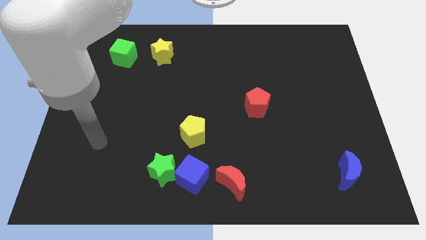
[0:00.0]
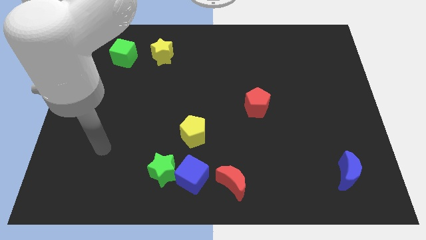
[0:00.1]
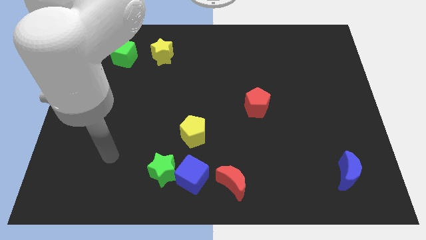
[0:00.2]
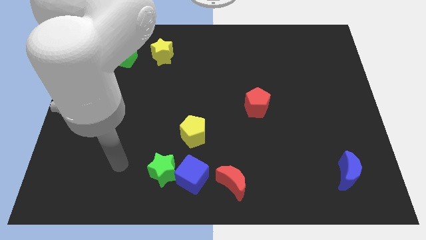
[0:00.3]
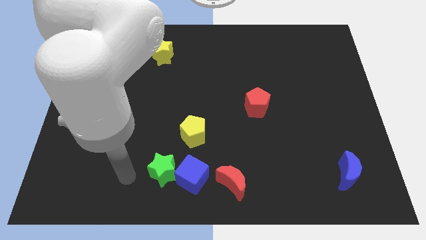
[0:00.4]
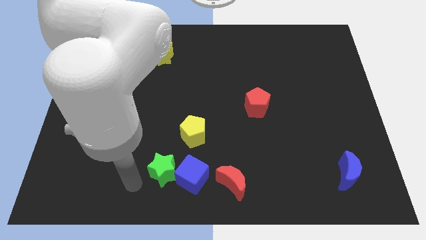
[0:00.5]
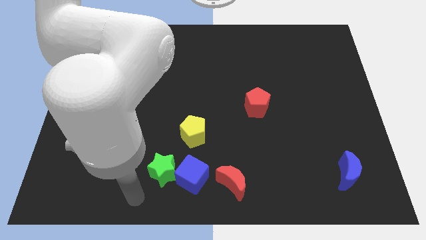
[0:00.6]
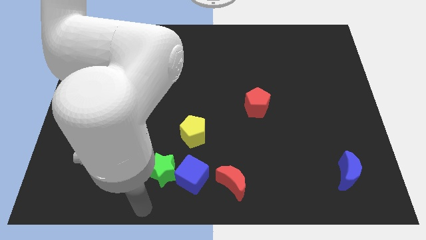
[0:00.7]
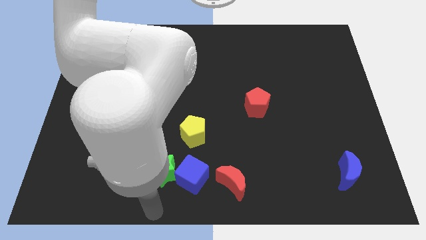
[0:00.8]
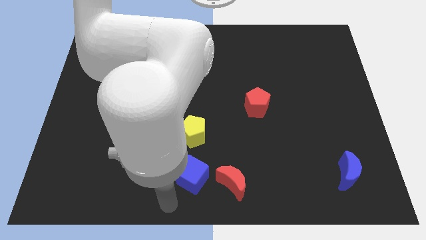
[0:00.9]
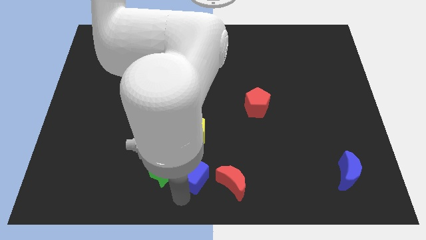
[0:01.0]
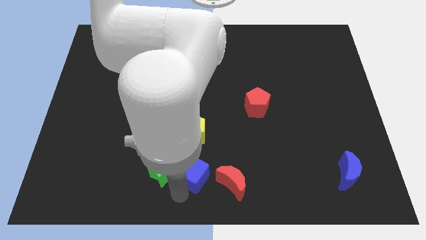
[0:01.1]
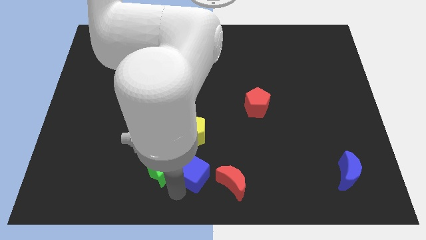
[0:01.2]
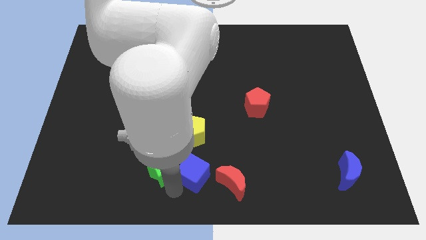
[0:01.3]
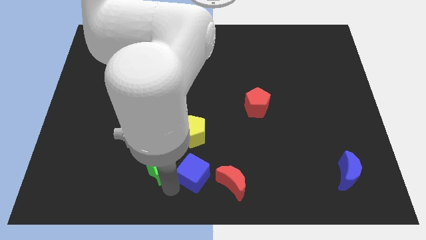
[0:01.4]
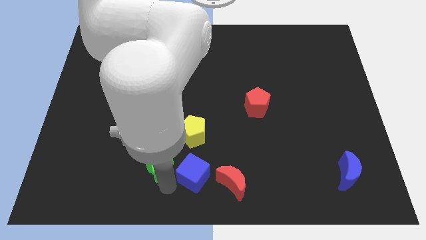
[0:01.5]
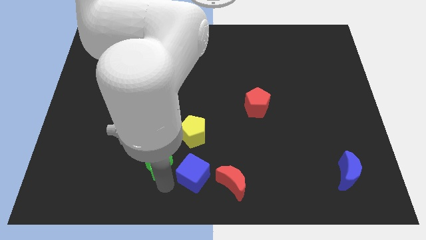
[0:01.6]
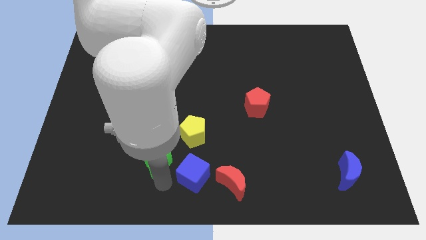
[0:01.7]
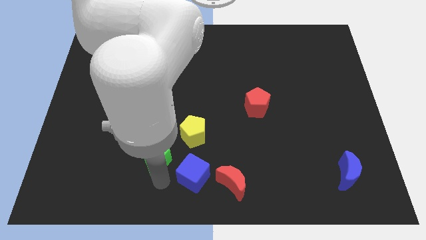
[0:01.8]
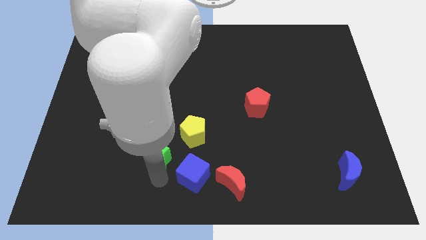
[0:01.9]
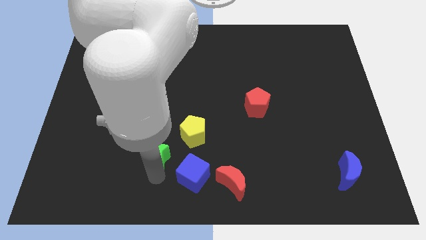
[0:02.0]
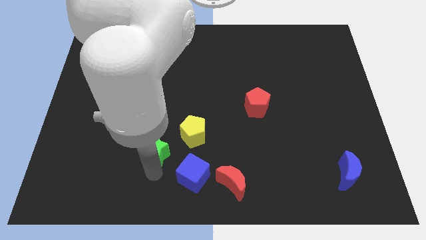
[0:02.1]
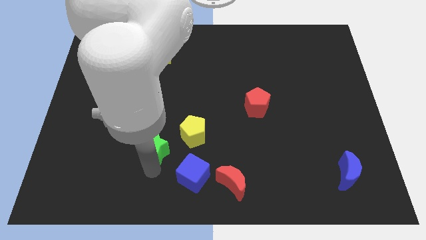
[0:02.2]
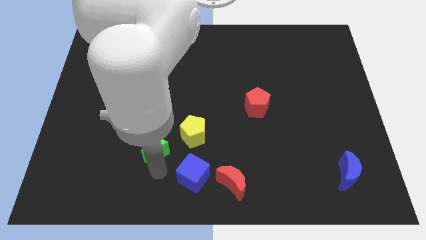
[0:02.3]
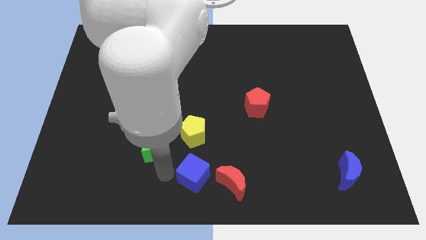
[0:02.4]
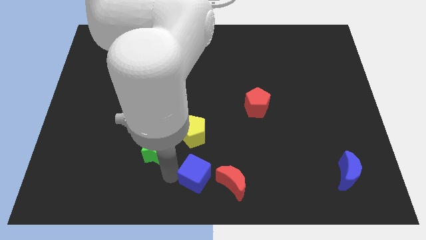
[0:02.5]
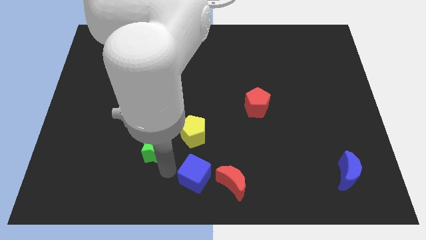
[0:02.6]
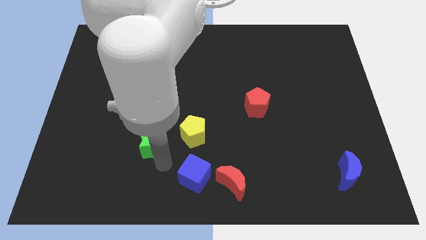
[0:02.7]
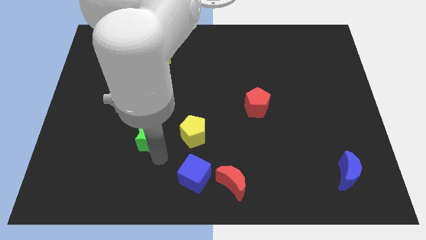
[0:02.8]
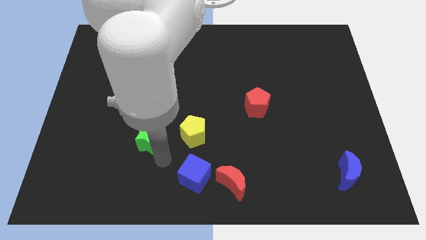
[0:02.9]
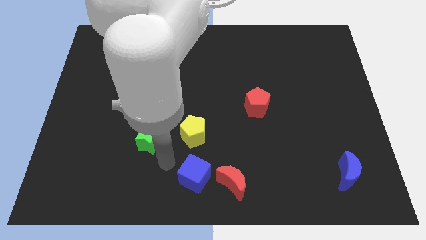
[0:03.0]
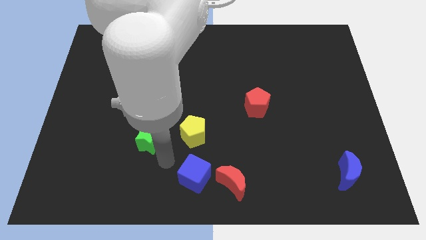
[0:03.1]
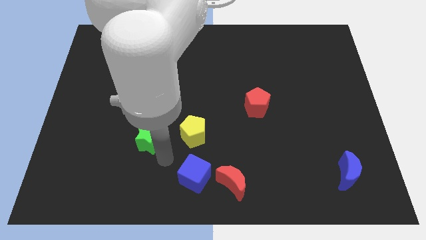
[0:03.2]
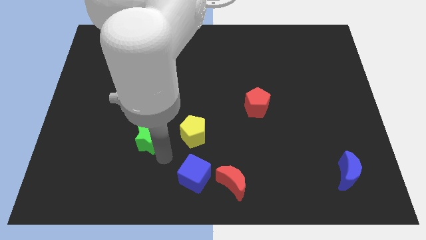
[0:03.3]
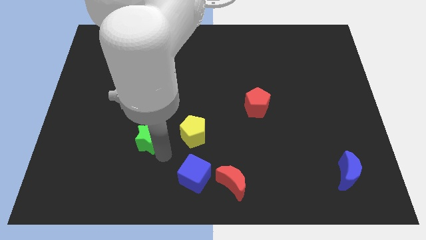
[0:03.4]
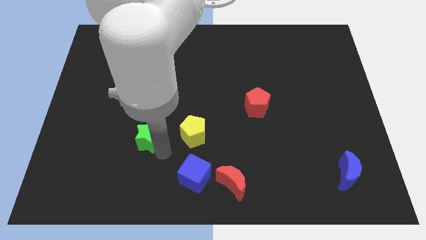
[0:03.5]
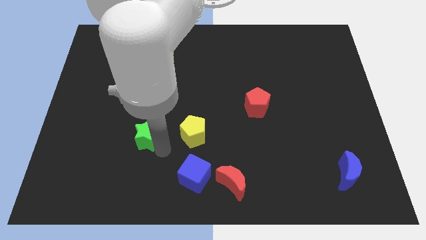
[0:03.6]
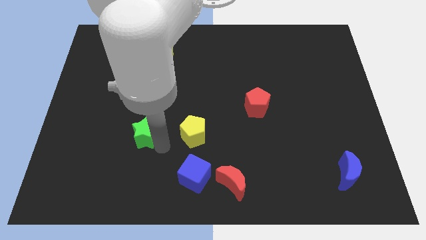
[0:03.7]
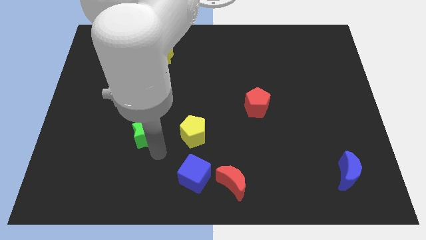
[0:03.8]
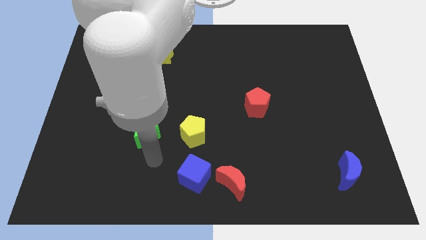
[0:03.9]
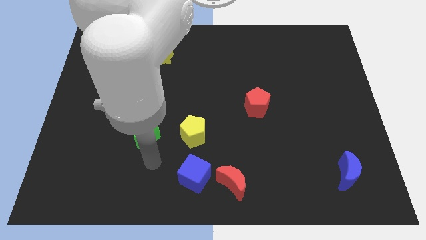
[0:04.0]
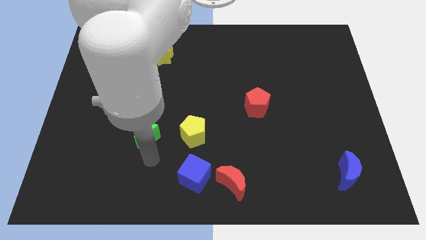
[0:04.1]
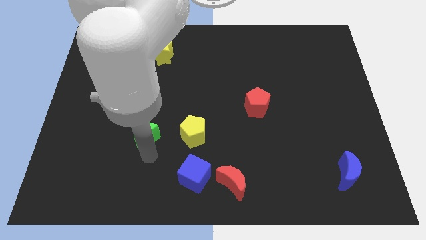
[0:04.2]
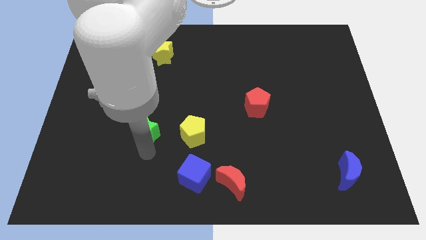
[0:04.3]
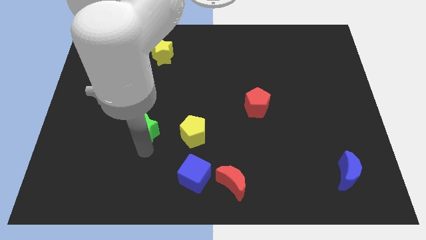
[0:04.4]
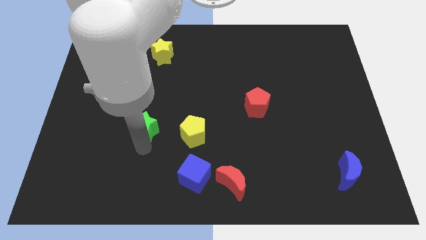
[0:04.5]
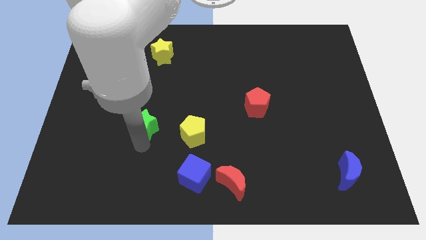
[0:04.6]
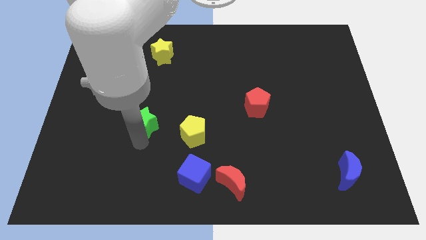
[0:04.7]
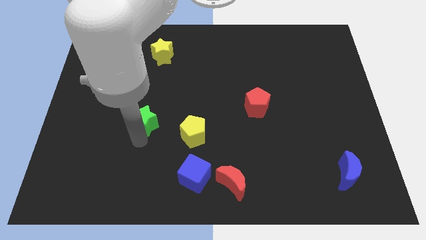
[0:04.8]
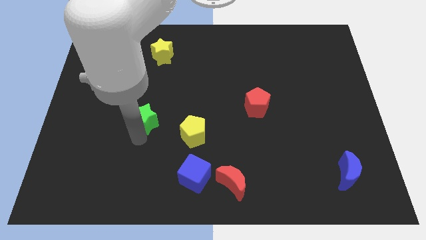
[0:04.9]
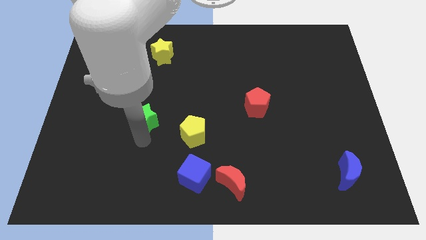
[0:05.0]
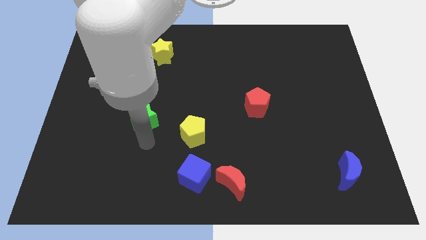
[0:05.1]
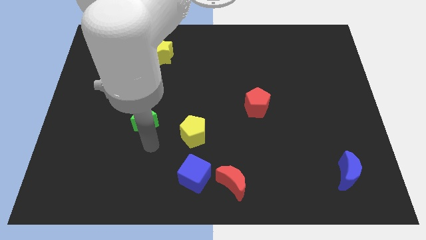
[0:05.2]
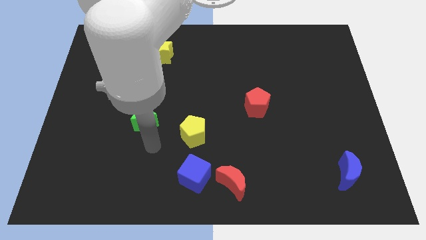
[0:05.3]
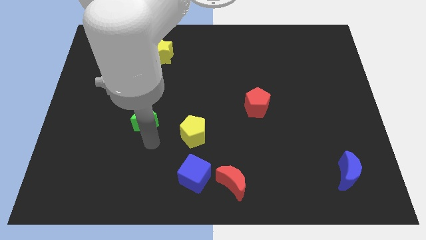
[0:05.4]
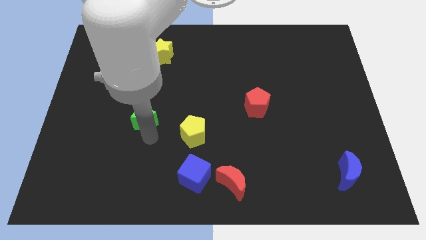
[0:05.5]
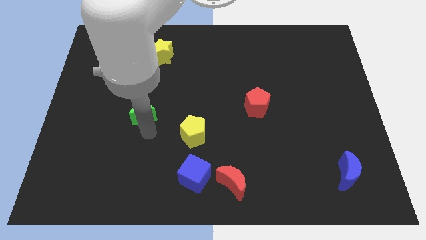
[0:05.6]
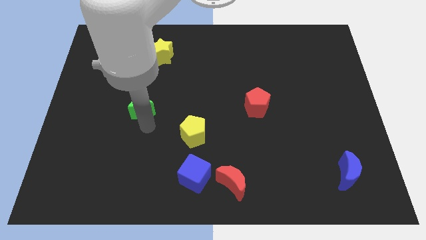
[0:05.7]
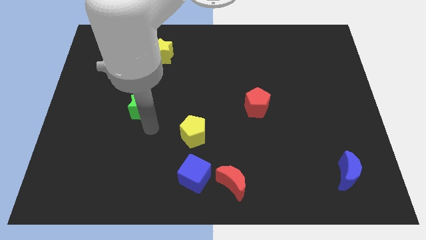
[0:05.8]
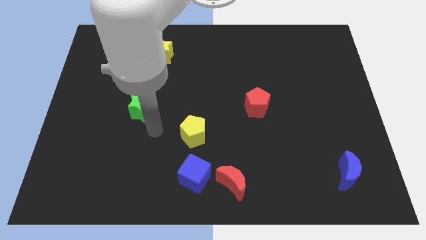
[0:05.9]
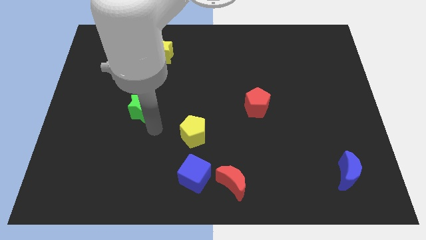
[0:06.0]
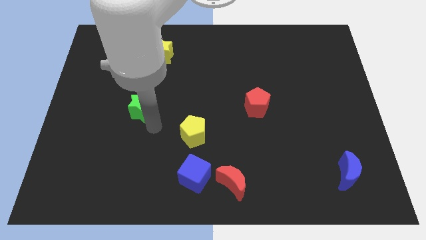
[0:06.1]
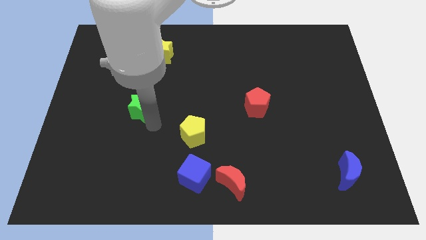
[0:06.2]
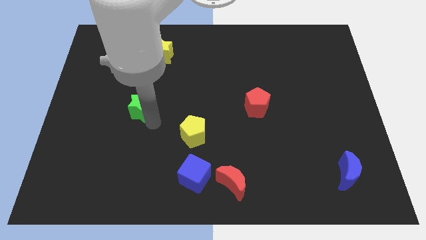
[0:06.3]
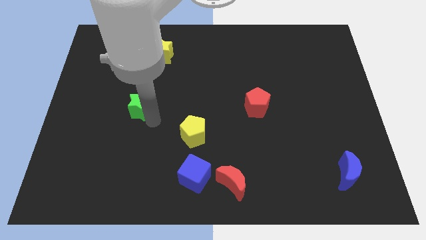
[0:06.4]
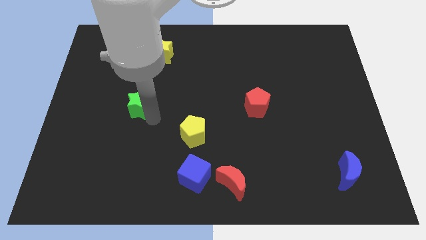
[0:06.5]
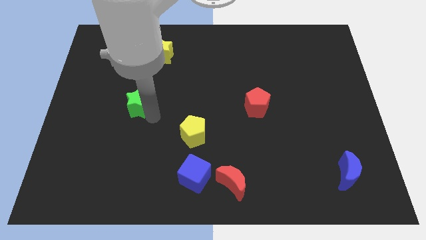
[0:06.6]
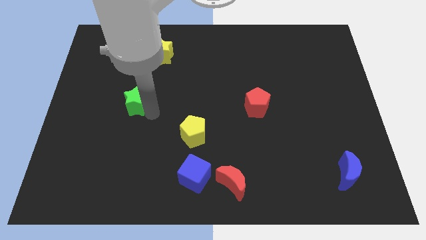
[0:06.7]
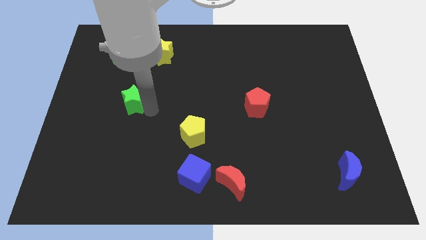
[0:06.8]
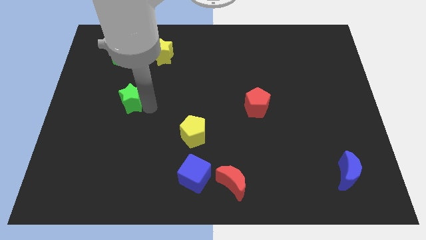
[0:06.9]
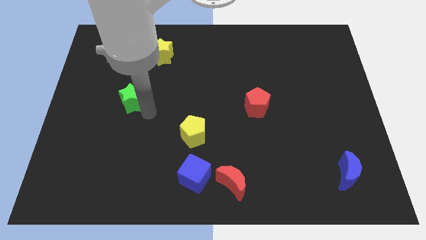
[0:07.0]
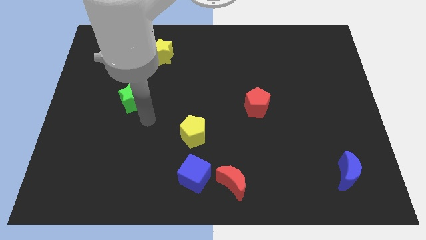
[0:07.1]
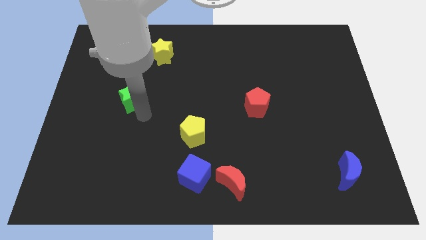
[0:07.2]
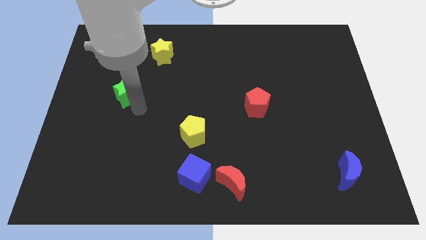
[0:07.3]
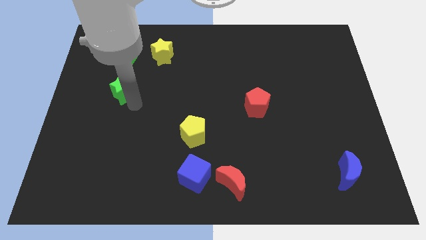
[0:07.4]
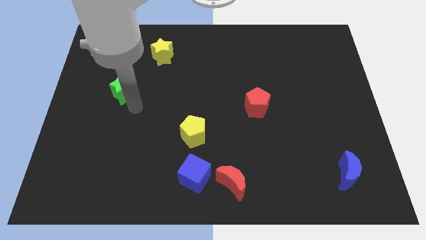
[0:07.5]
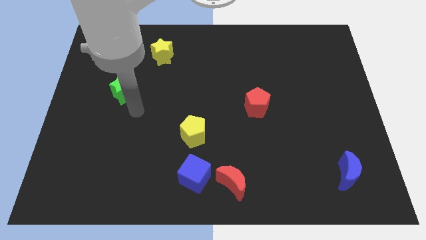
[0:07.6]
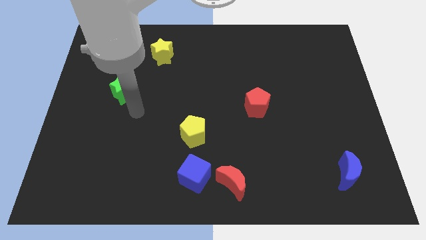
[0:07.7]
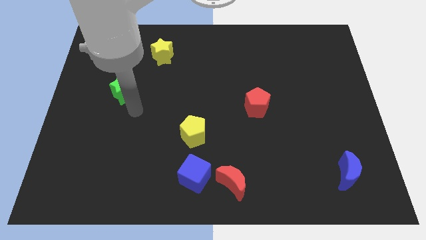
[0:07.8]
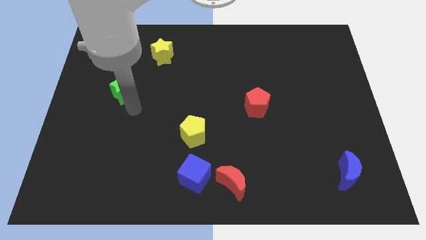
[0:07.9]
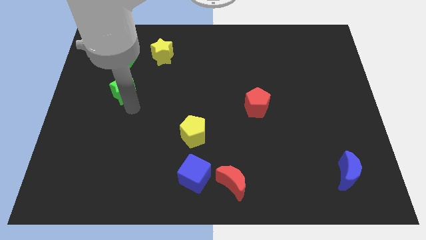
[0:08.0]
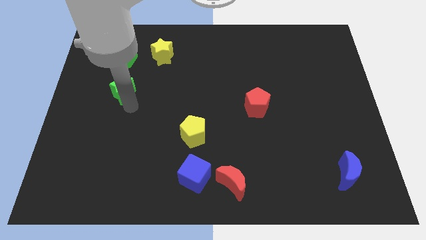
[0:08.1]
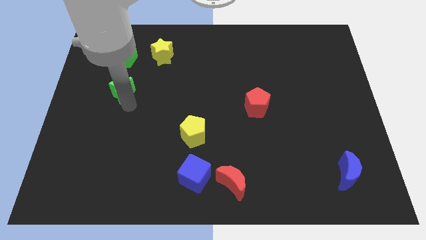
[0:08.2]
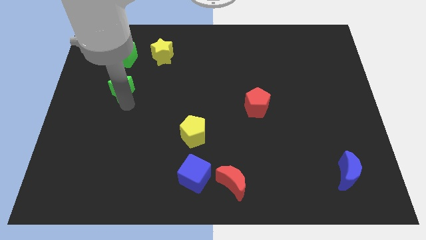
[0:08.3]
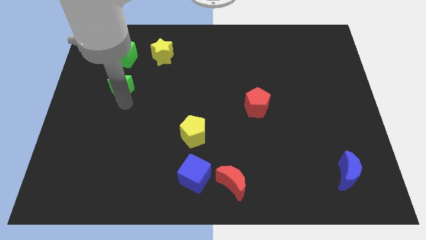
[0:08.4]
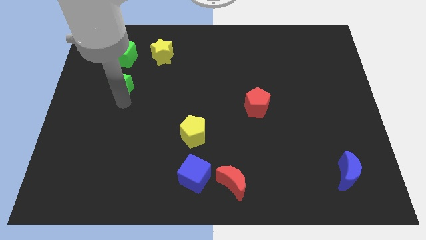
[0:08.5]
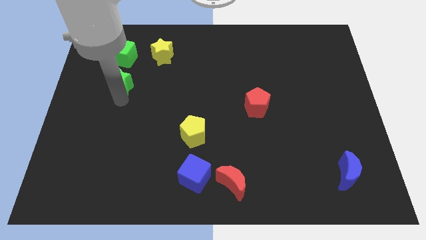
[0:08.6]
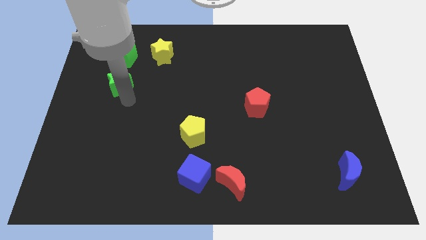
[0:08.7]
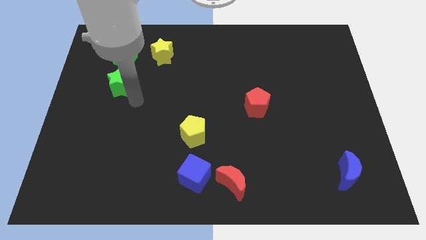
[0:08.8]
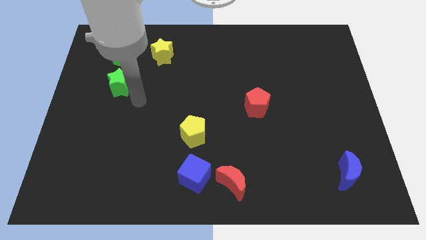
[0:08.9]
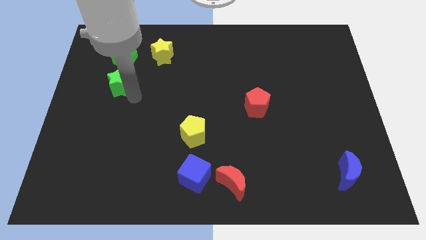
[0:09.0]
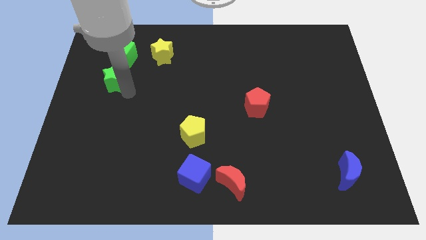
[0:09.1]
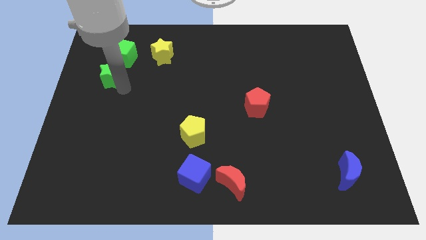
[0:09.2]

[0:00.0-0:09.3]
move the green star to the bottom left side of the green cube
